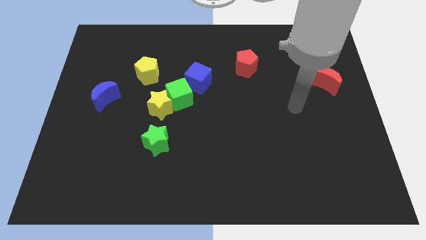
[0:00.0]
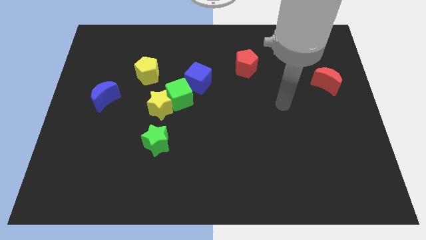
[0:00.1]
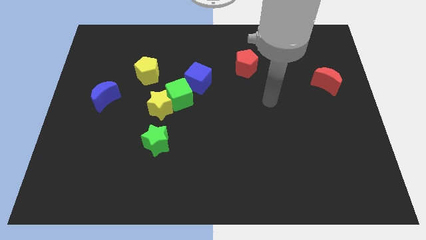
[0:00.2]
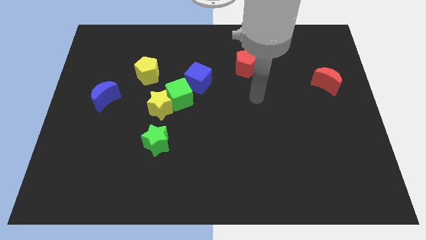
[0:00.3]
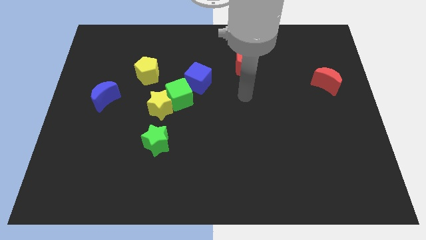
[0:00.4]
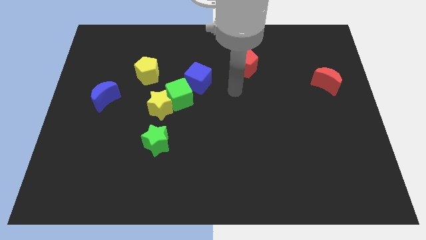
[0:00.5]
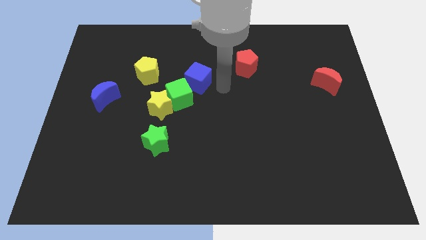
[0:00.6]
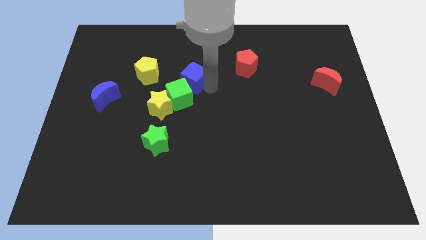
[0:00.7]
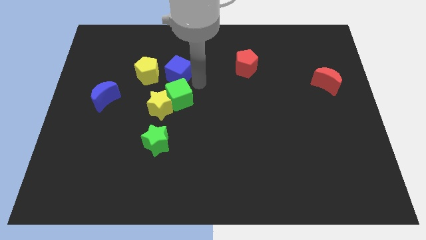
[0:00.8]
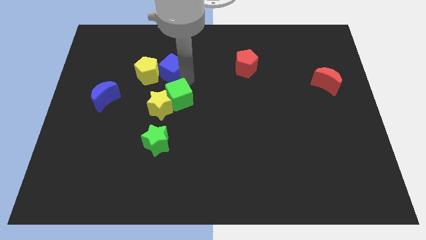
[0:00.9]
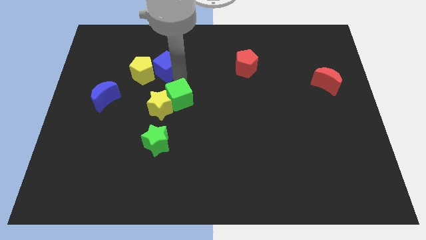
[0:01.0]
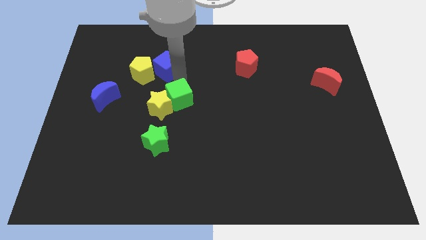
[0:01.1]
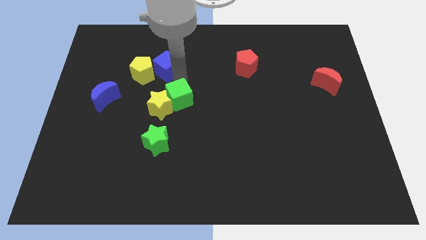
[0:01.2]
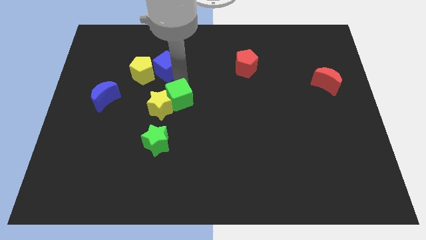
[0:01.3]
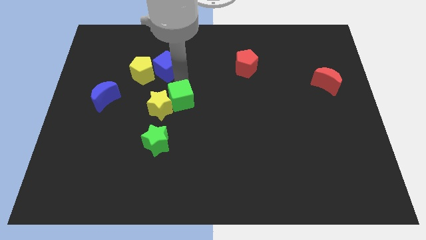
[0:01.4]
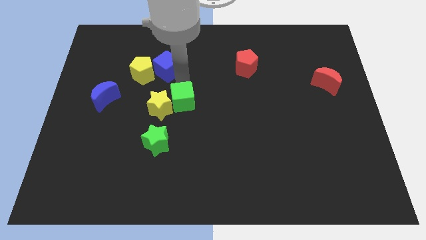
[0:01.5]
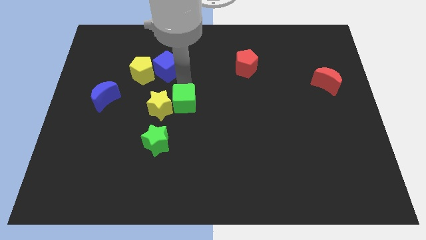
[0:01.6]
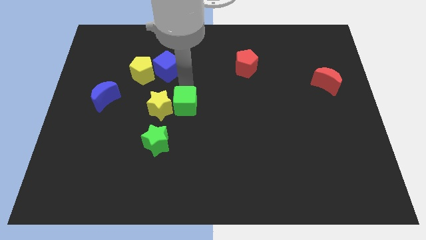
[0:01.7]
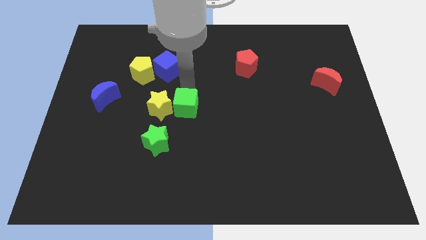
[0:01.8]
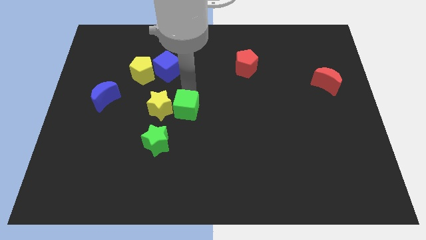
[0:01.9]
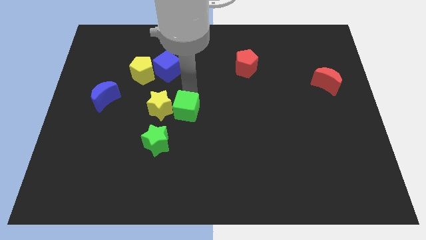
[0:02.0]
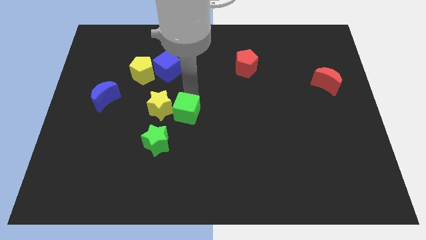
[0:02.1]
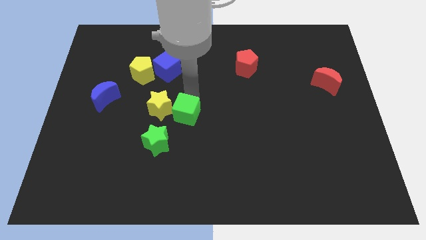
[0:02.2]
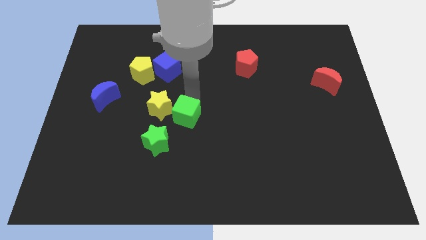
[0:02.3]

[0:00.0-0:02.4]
separate the green cube from the yellow star and blue cube

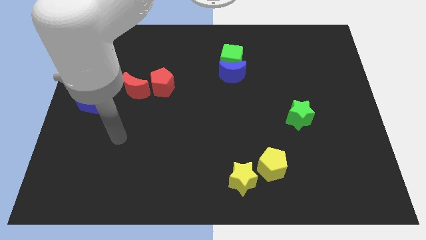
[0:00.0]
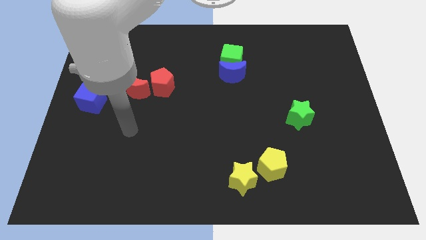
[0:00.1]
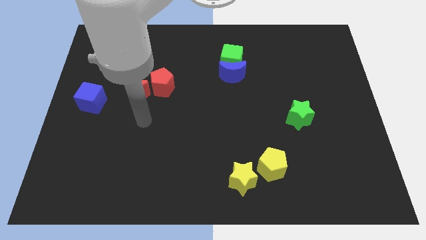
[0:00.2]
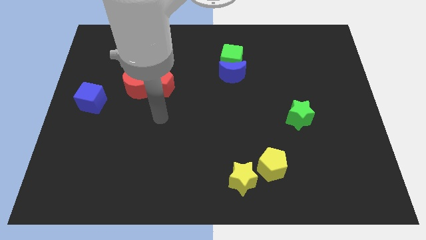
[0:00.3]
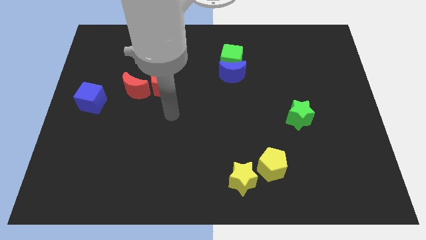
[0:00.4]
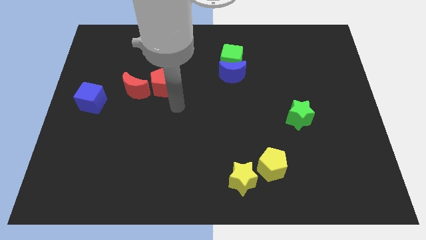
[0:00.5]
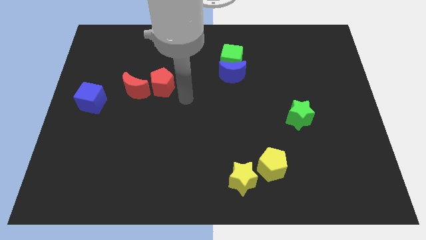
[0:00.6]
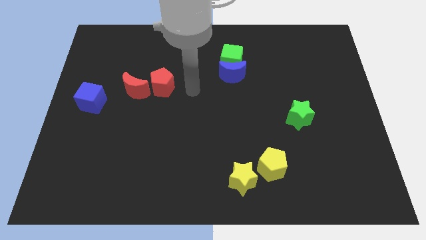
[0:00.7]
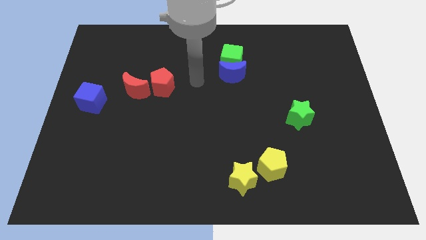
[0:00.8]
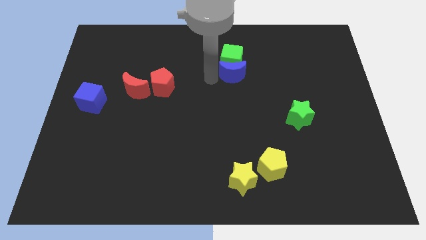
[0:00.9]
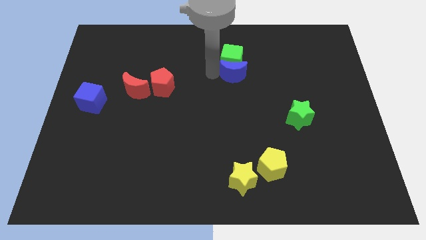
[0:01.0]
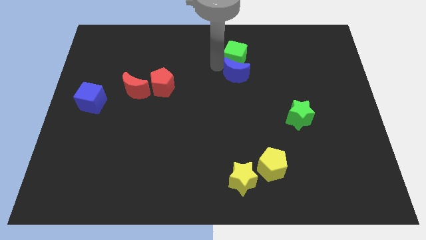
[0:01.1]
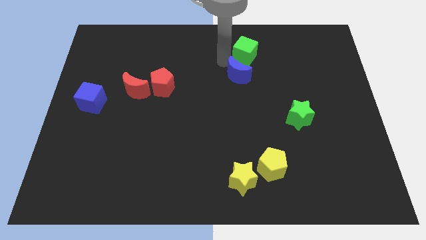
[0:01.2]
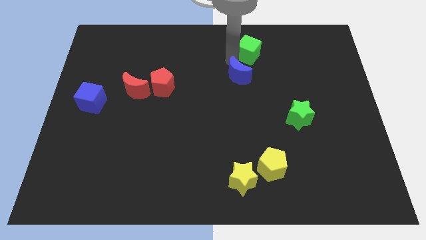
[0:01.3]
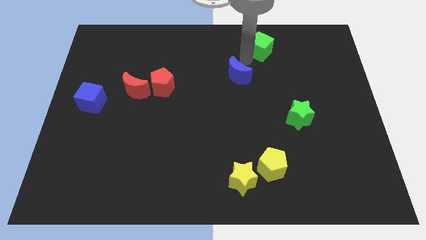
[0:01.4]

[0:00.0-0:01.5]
separate the blue moon from the green cube

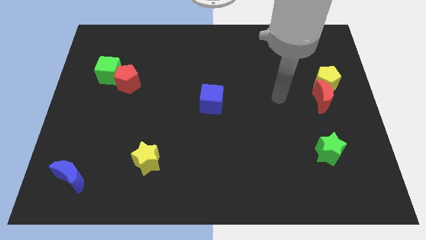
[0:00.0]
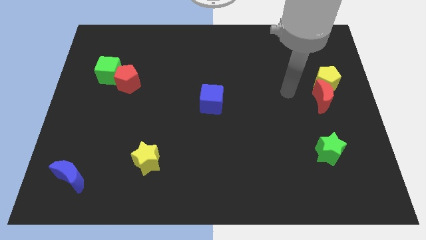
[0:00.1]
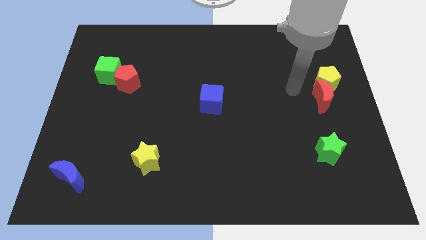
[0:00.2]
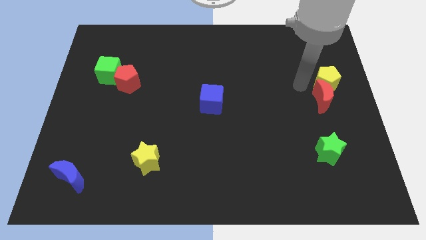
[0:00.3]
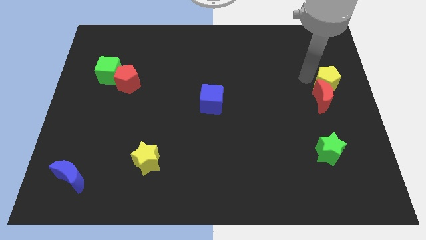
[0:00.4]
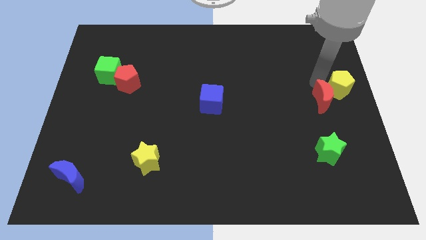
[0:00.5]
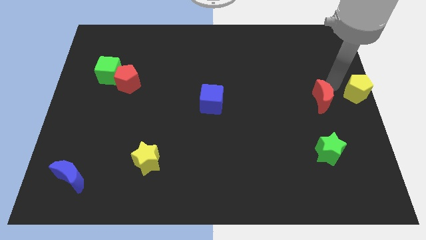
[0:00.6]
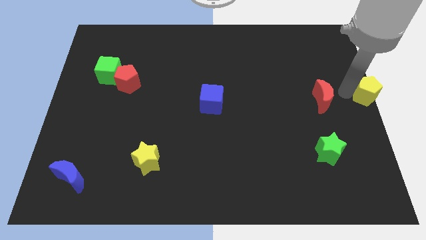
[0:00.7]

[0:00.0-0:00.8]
pull the red moon apart from the yellow pentagon

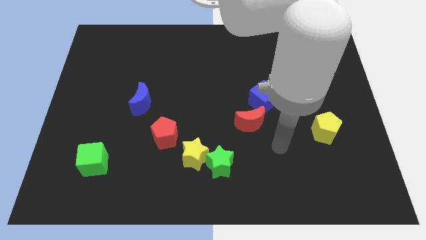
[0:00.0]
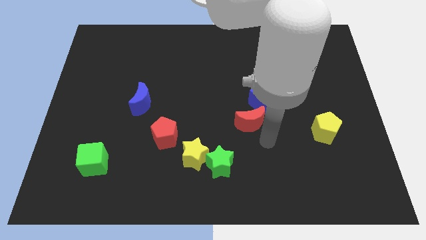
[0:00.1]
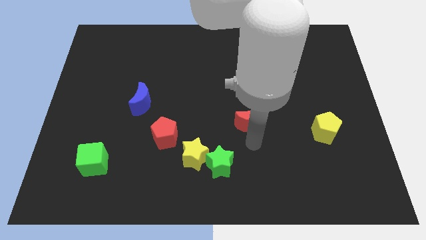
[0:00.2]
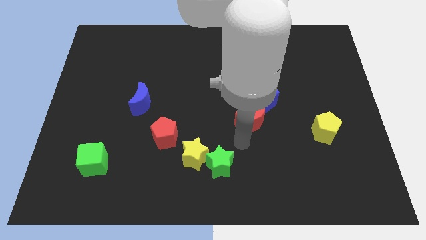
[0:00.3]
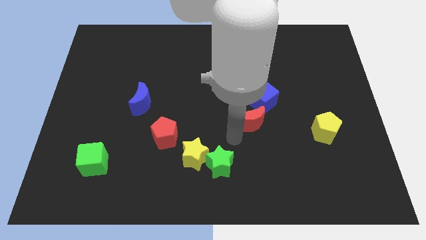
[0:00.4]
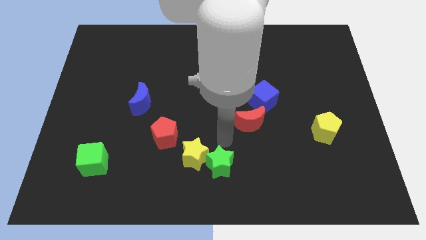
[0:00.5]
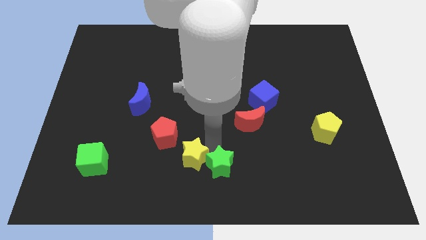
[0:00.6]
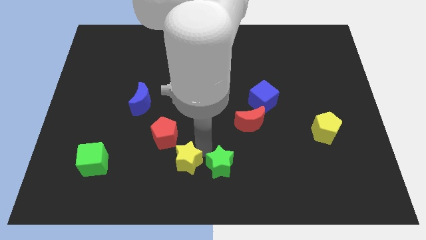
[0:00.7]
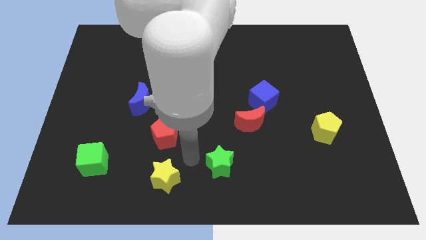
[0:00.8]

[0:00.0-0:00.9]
separate the green star from the yellow star

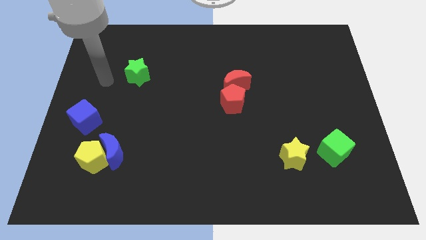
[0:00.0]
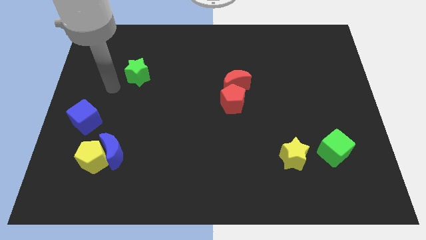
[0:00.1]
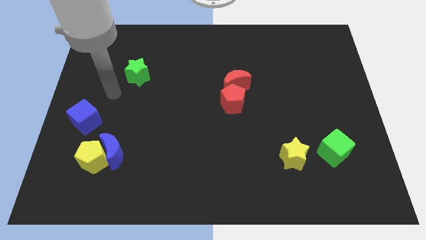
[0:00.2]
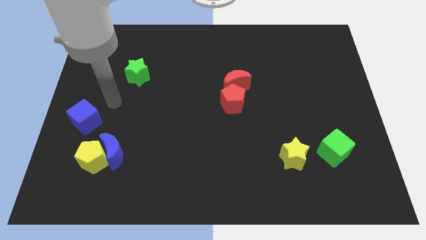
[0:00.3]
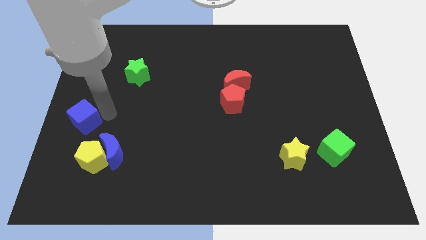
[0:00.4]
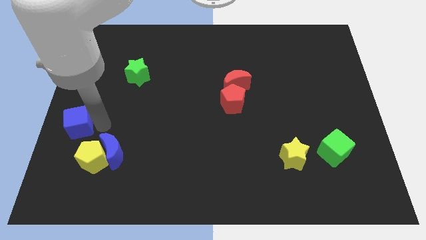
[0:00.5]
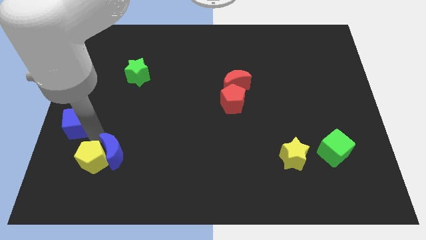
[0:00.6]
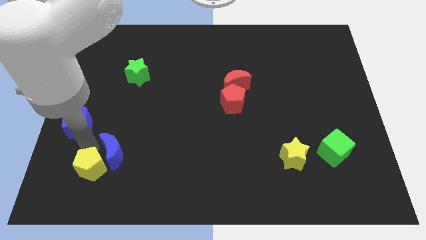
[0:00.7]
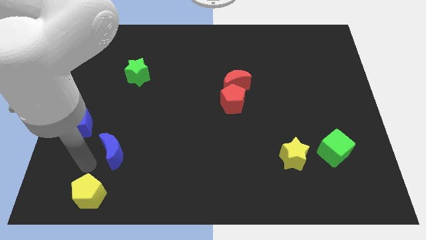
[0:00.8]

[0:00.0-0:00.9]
separate the blue moon from the yellow pentagon

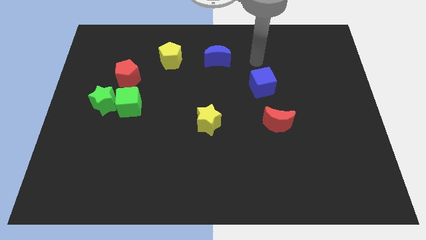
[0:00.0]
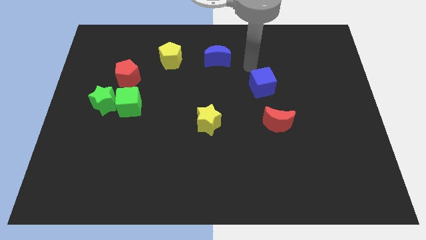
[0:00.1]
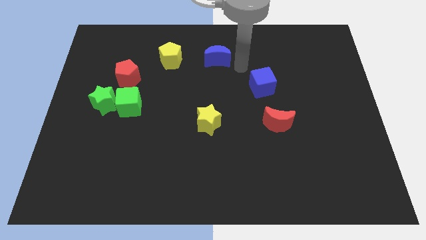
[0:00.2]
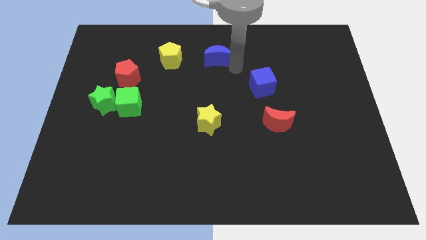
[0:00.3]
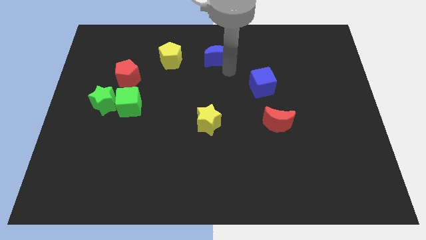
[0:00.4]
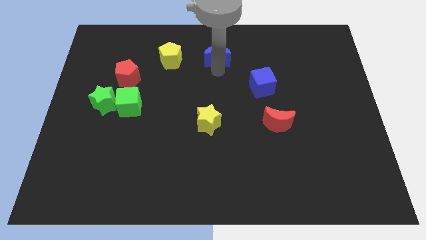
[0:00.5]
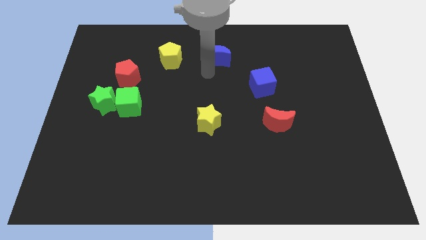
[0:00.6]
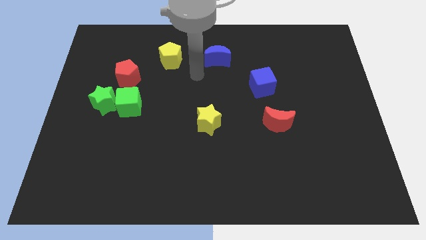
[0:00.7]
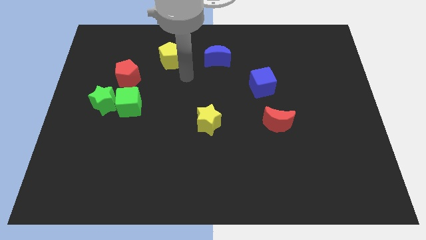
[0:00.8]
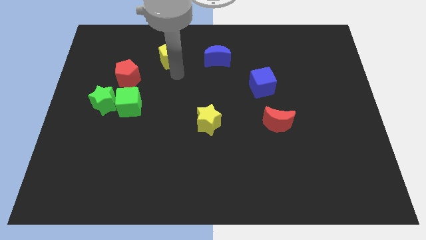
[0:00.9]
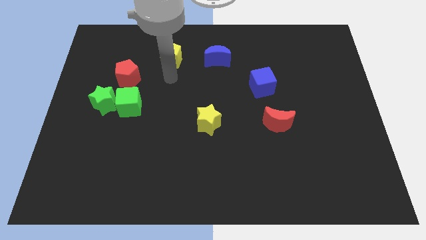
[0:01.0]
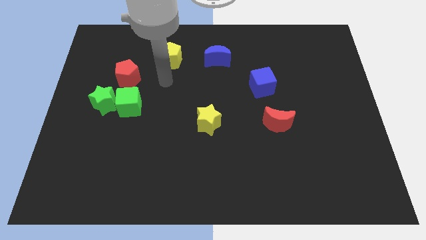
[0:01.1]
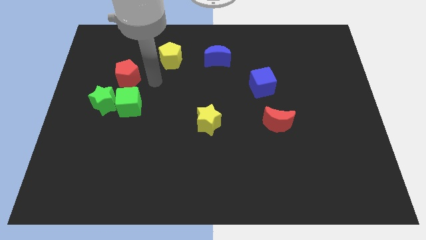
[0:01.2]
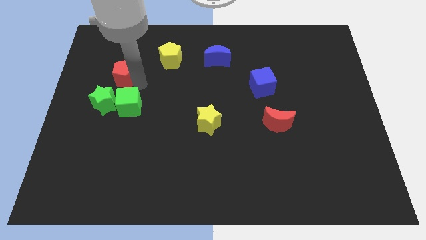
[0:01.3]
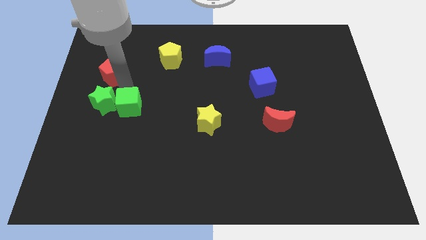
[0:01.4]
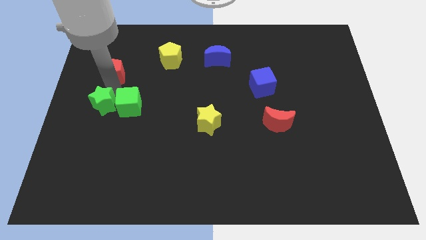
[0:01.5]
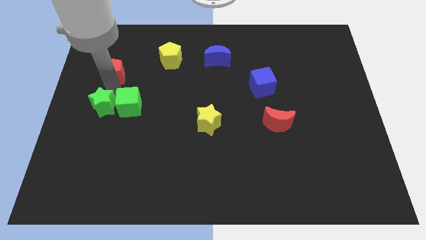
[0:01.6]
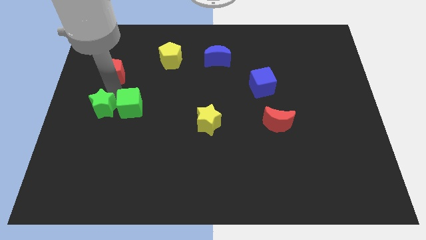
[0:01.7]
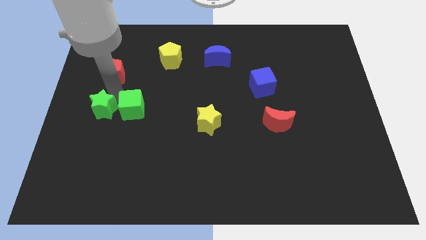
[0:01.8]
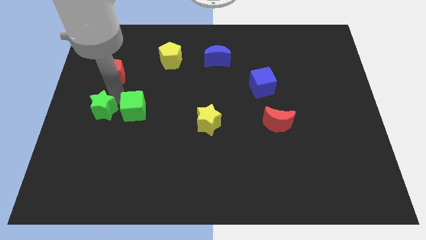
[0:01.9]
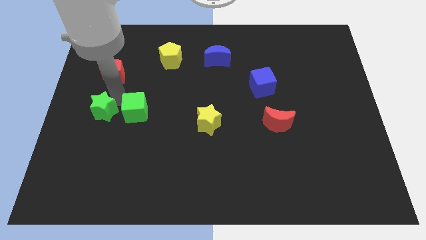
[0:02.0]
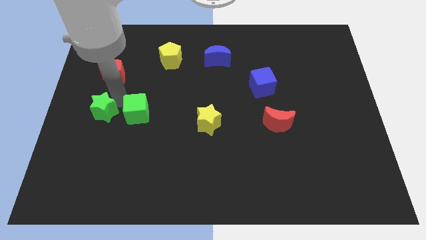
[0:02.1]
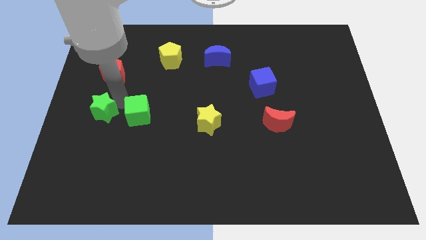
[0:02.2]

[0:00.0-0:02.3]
pull the green cube apart from the green star and red pentagon

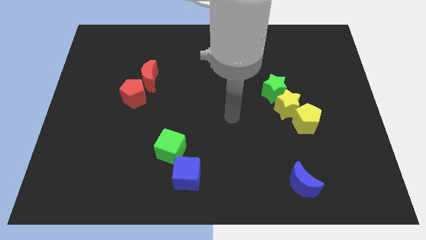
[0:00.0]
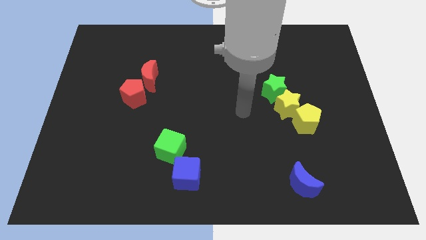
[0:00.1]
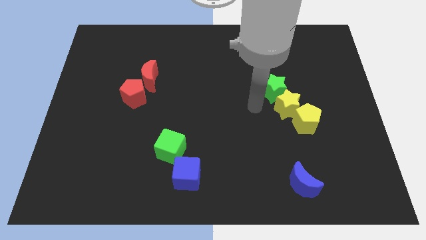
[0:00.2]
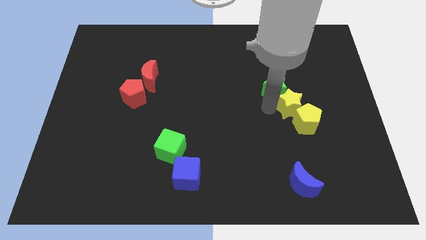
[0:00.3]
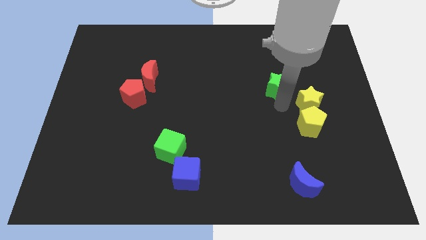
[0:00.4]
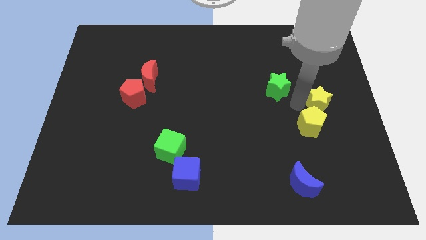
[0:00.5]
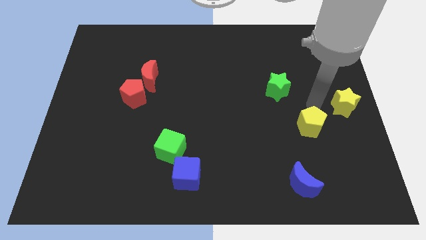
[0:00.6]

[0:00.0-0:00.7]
separate the yellow pentagon from the yellow star

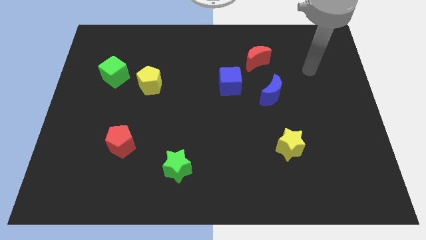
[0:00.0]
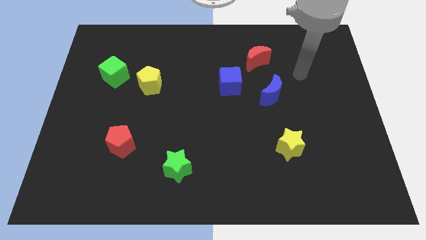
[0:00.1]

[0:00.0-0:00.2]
move the green cube away from the yellow pentagon
